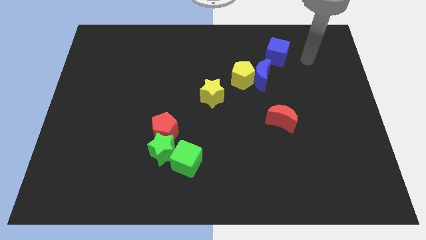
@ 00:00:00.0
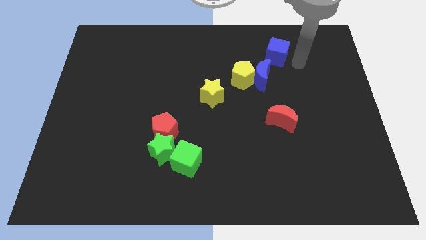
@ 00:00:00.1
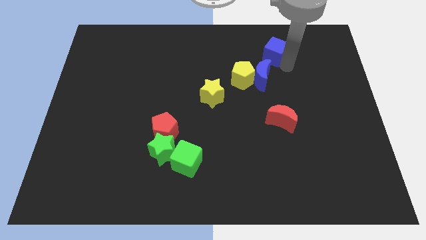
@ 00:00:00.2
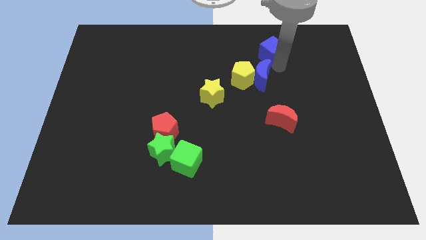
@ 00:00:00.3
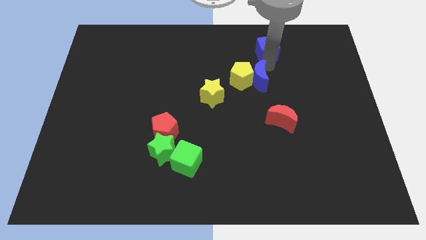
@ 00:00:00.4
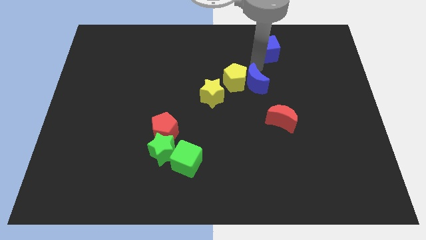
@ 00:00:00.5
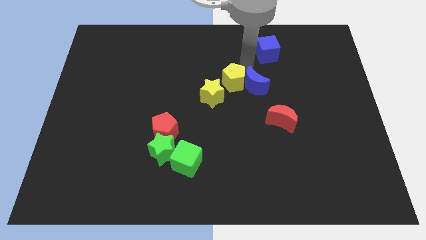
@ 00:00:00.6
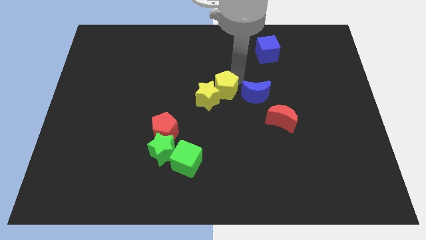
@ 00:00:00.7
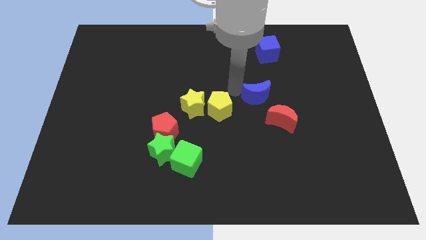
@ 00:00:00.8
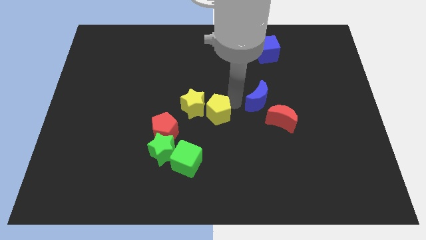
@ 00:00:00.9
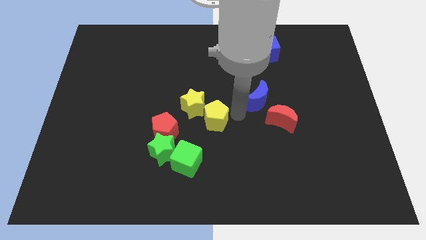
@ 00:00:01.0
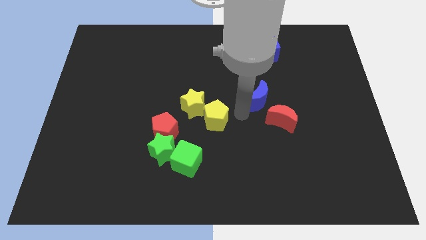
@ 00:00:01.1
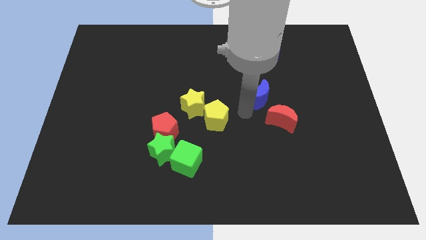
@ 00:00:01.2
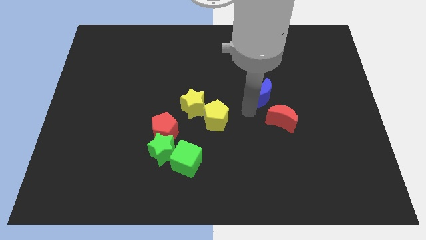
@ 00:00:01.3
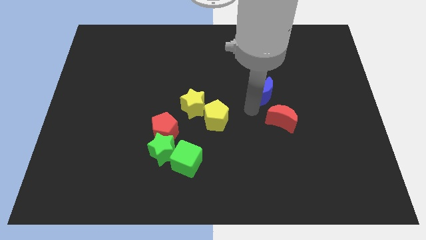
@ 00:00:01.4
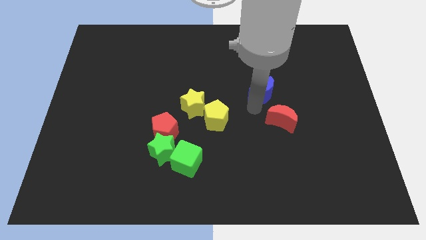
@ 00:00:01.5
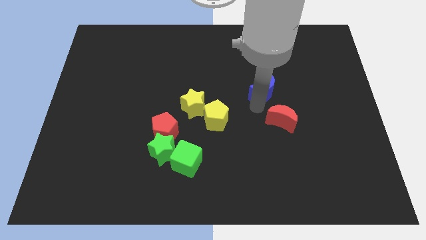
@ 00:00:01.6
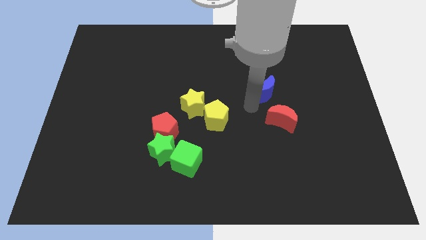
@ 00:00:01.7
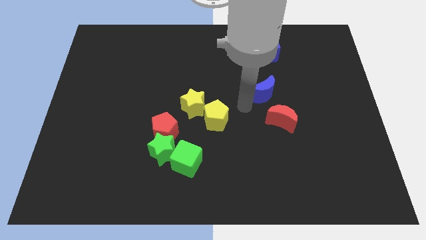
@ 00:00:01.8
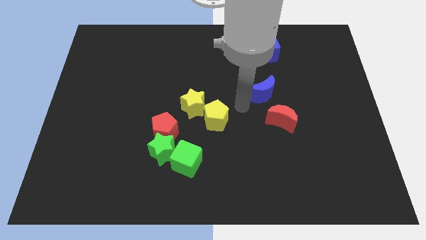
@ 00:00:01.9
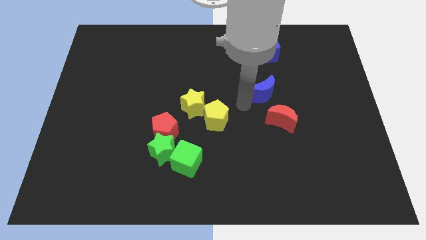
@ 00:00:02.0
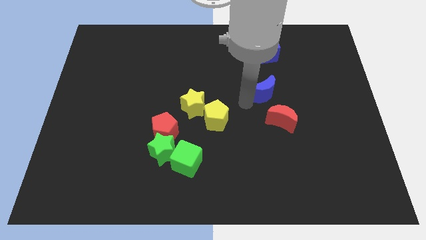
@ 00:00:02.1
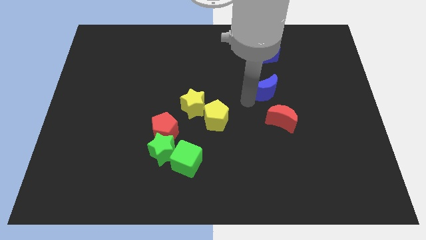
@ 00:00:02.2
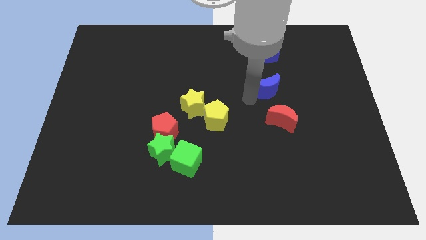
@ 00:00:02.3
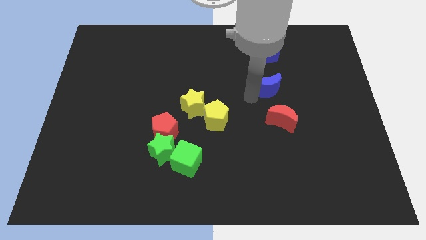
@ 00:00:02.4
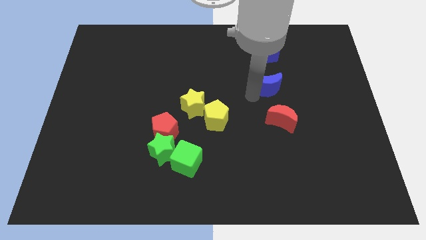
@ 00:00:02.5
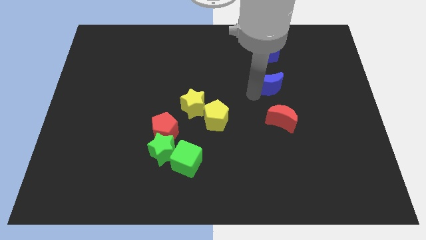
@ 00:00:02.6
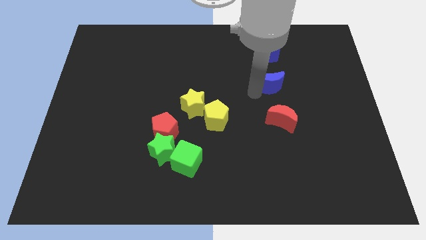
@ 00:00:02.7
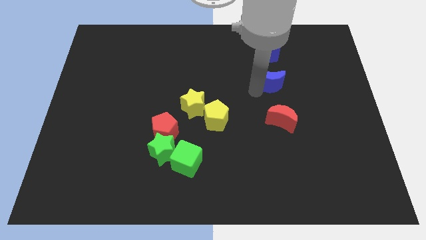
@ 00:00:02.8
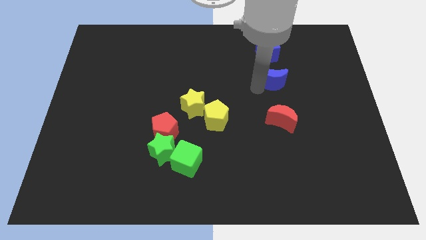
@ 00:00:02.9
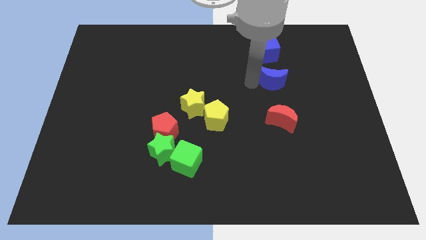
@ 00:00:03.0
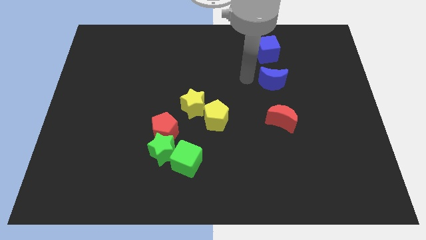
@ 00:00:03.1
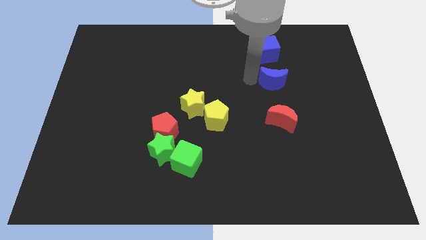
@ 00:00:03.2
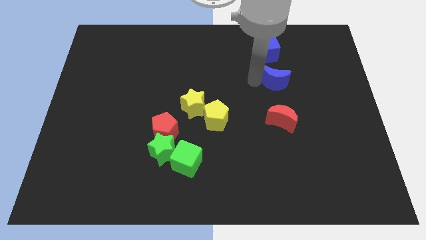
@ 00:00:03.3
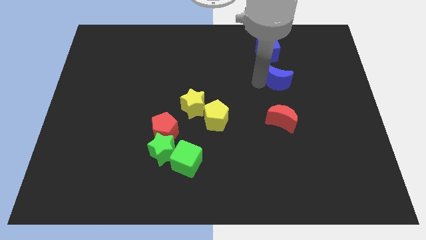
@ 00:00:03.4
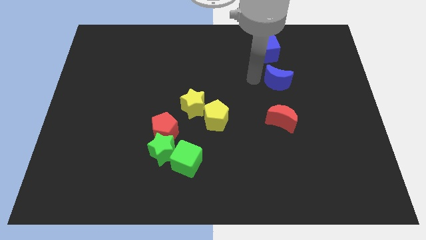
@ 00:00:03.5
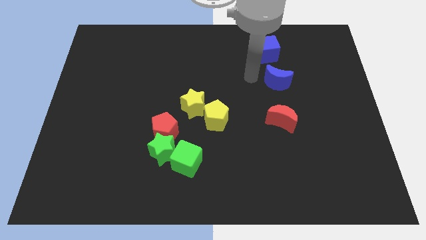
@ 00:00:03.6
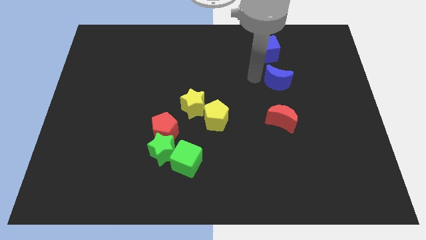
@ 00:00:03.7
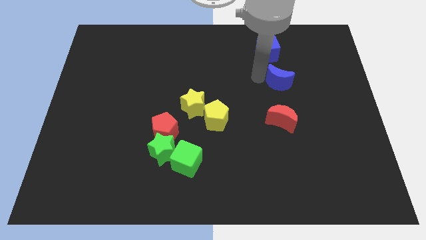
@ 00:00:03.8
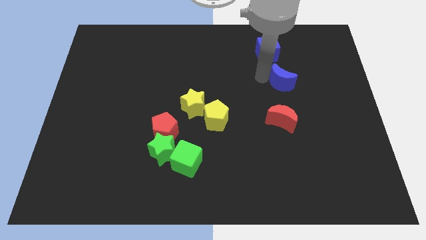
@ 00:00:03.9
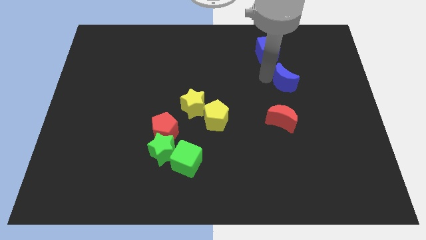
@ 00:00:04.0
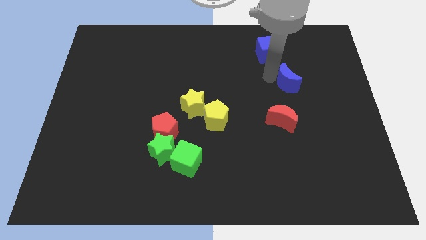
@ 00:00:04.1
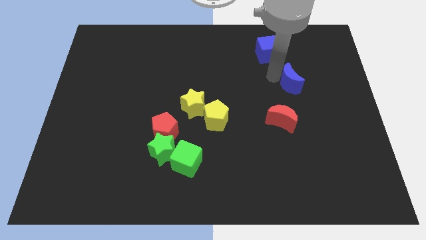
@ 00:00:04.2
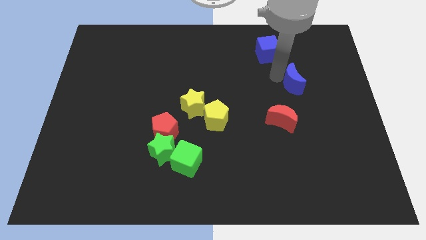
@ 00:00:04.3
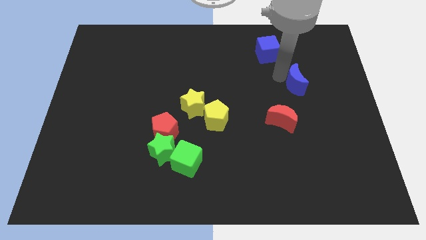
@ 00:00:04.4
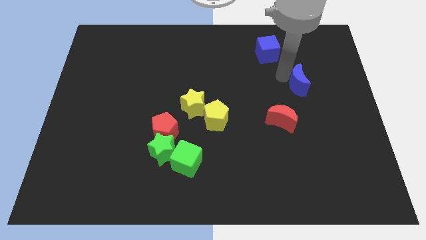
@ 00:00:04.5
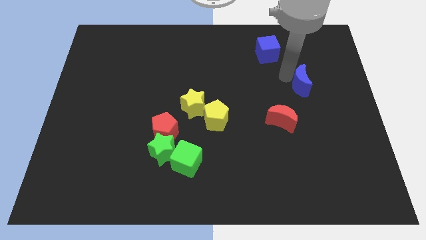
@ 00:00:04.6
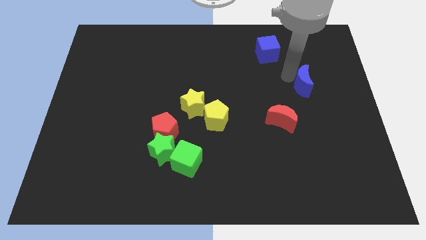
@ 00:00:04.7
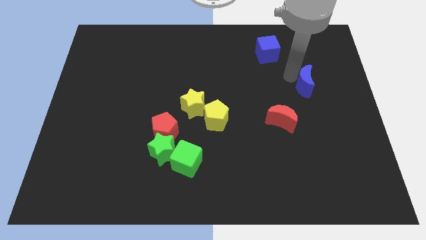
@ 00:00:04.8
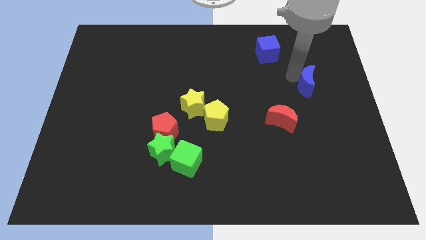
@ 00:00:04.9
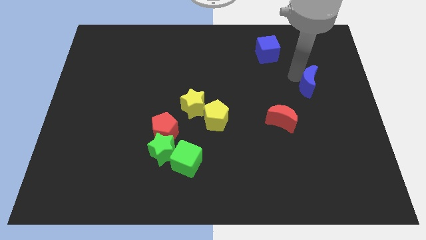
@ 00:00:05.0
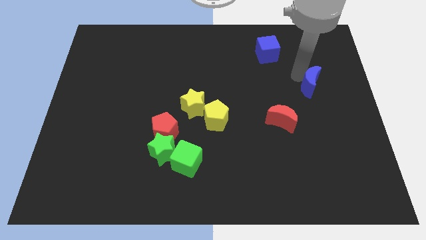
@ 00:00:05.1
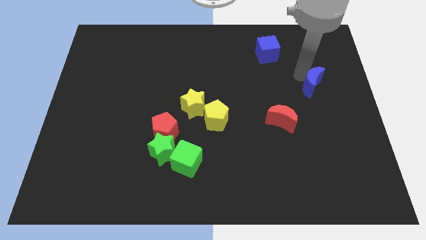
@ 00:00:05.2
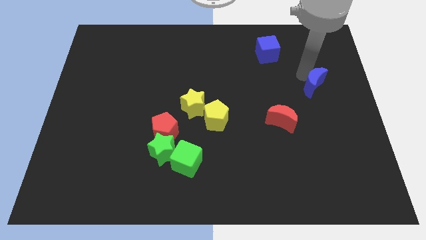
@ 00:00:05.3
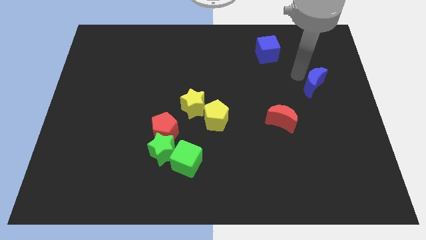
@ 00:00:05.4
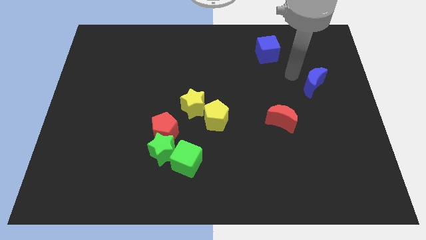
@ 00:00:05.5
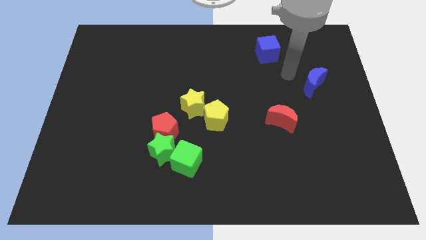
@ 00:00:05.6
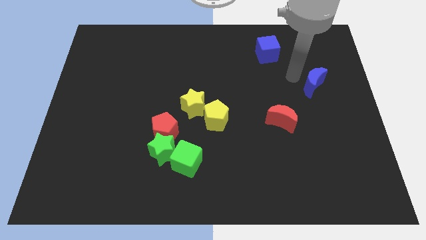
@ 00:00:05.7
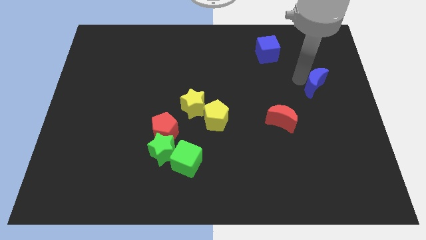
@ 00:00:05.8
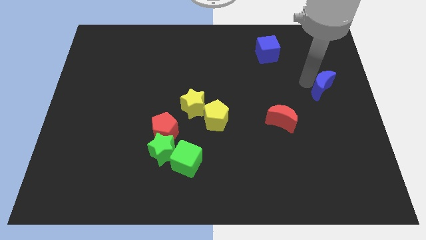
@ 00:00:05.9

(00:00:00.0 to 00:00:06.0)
move the blue moon to the right side

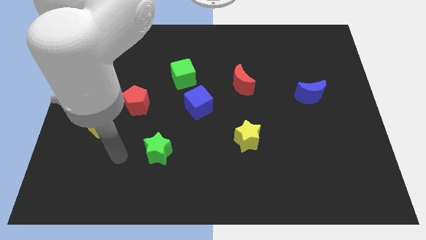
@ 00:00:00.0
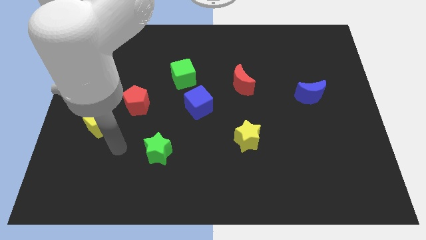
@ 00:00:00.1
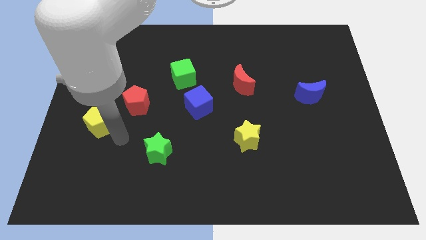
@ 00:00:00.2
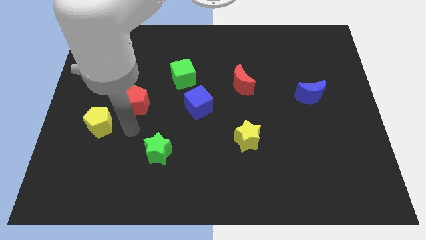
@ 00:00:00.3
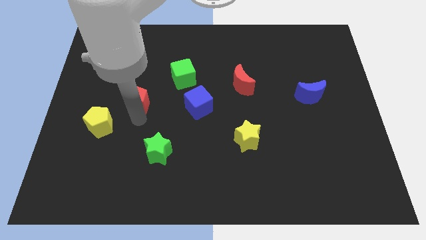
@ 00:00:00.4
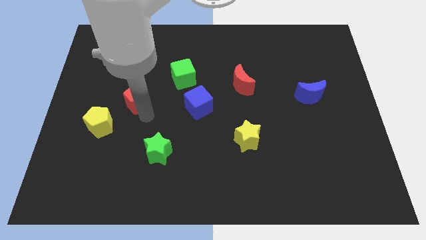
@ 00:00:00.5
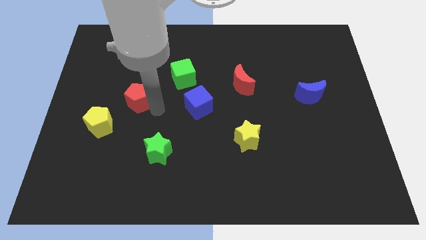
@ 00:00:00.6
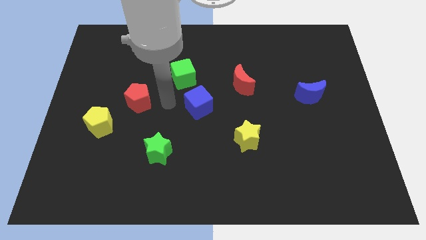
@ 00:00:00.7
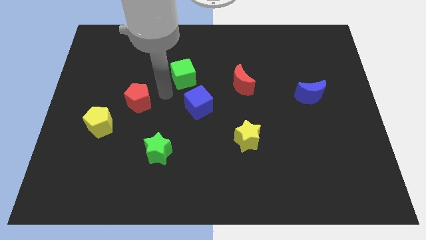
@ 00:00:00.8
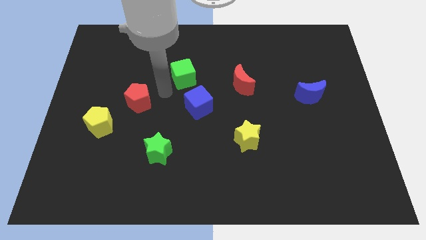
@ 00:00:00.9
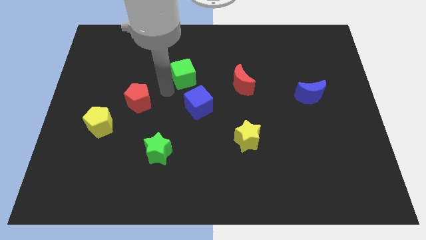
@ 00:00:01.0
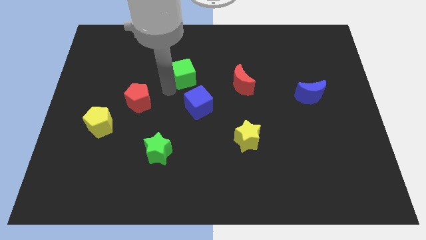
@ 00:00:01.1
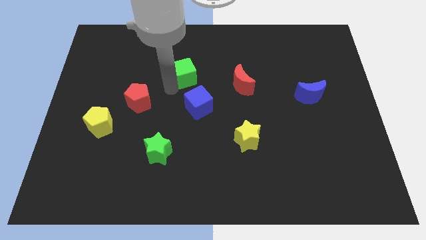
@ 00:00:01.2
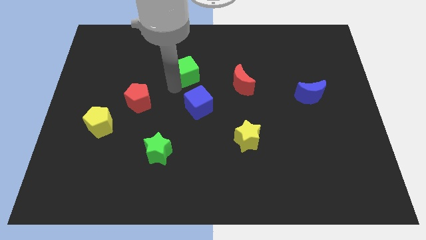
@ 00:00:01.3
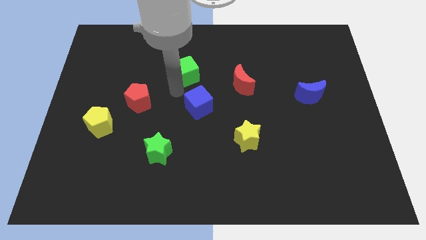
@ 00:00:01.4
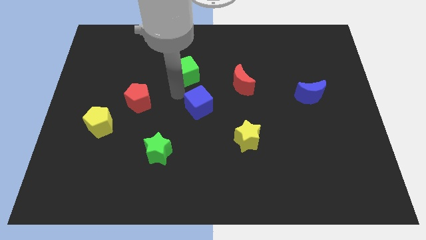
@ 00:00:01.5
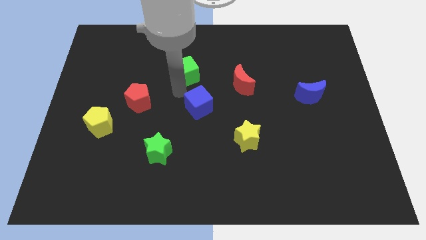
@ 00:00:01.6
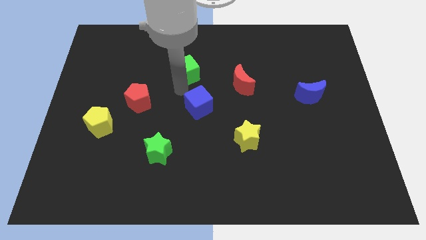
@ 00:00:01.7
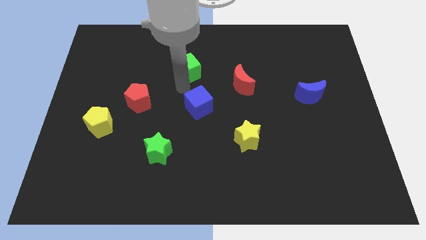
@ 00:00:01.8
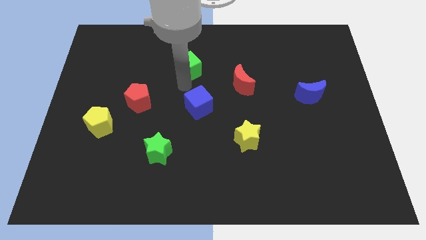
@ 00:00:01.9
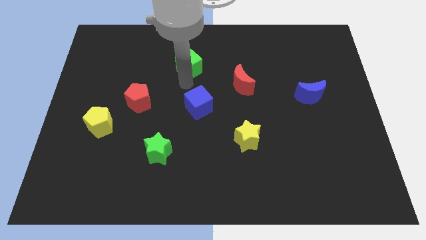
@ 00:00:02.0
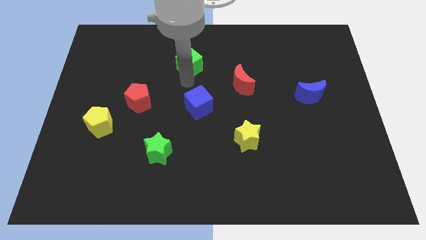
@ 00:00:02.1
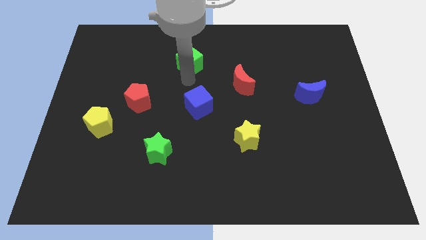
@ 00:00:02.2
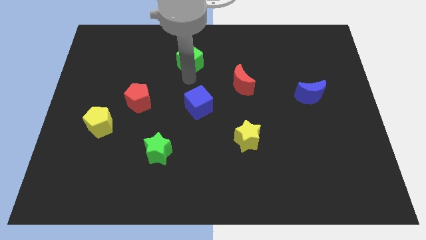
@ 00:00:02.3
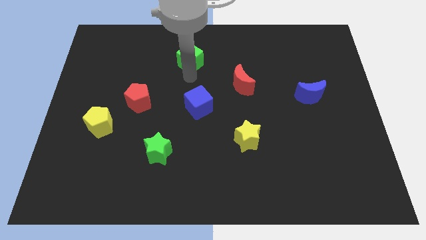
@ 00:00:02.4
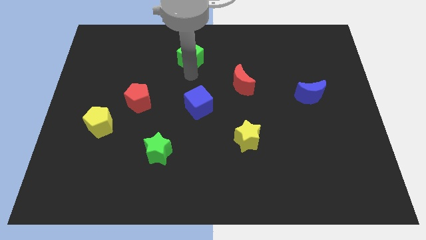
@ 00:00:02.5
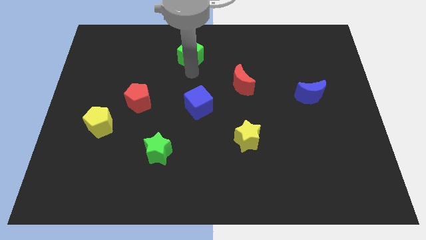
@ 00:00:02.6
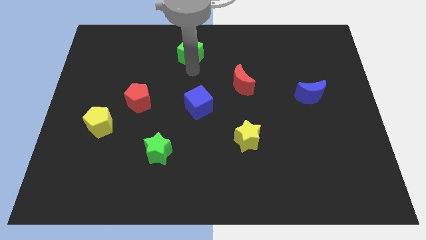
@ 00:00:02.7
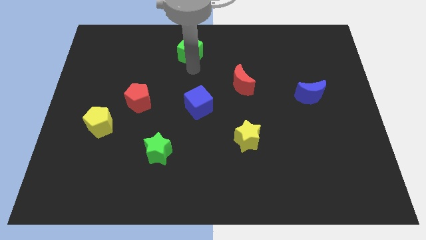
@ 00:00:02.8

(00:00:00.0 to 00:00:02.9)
slide the green cube to the towards your base
